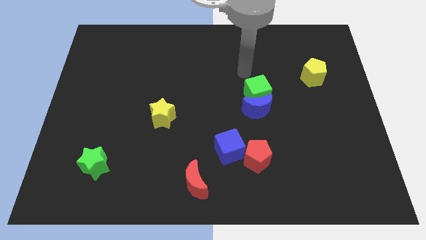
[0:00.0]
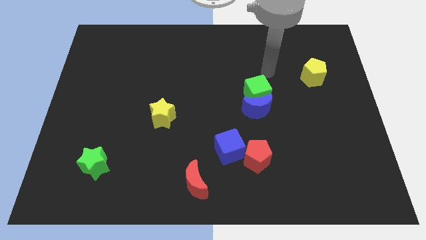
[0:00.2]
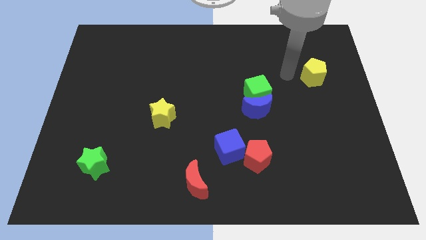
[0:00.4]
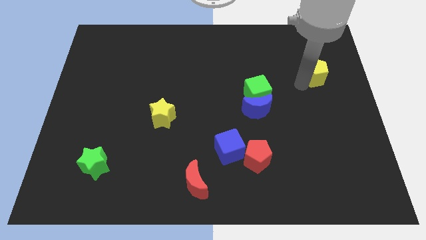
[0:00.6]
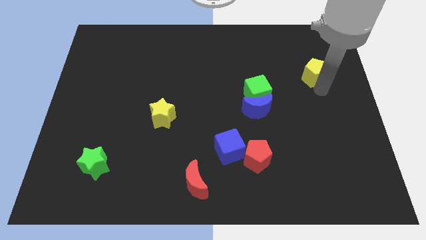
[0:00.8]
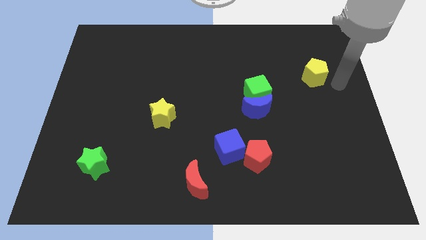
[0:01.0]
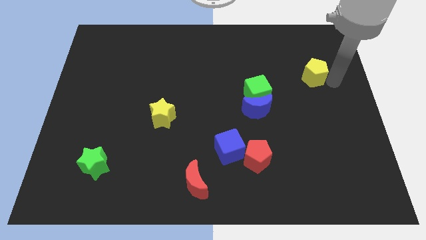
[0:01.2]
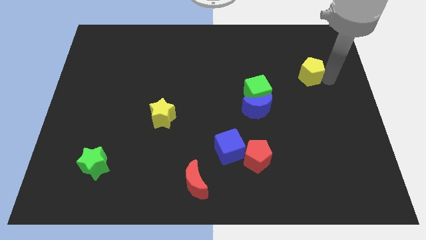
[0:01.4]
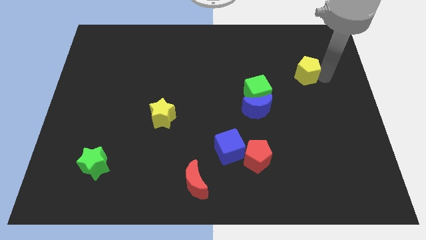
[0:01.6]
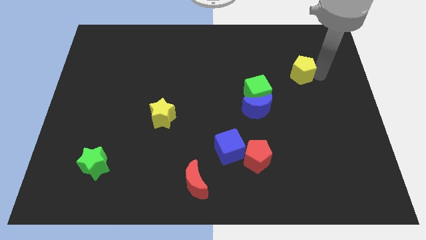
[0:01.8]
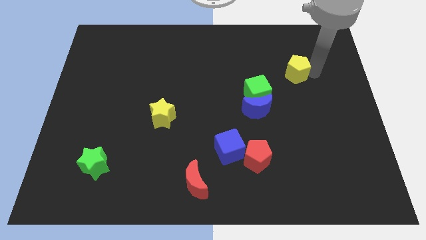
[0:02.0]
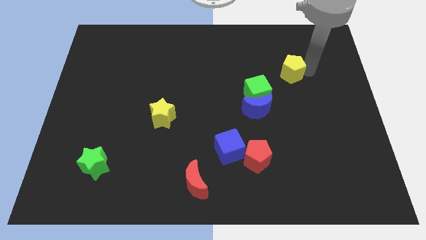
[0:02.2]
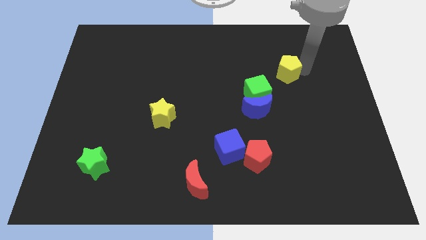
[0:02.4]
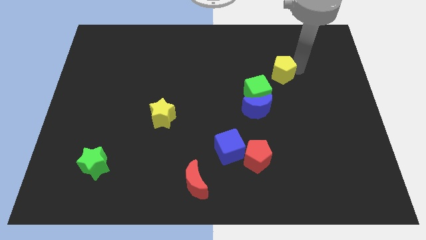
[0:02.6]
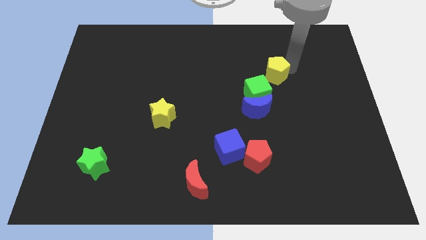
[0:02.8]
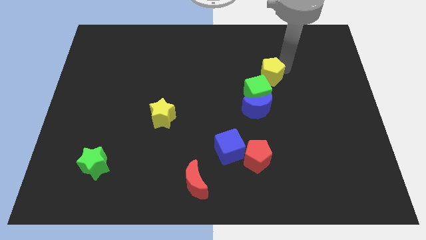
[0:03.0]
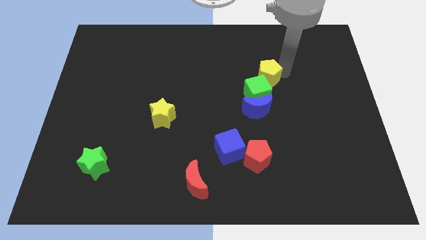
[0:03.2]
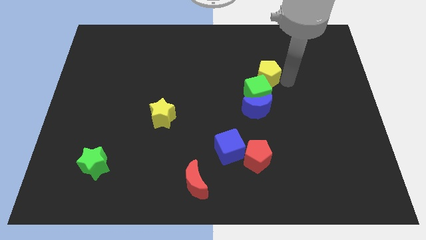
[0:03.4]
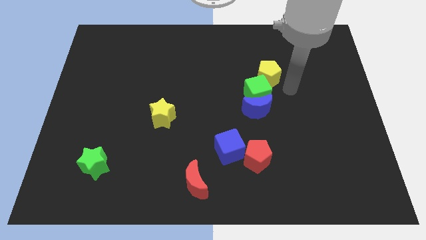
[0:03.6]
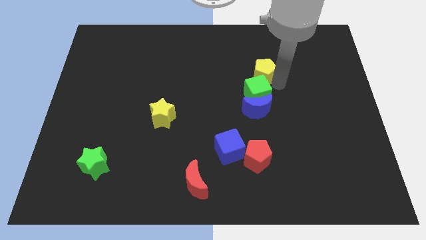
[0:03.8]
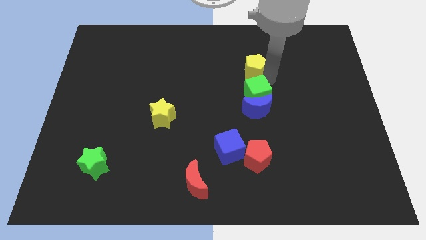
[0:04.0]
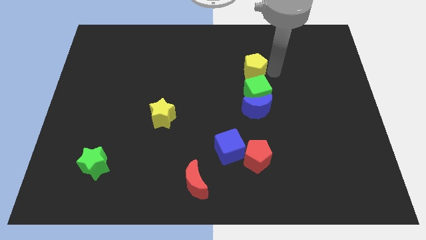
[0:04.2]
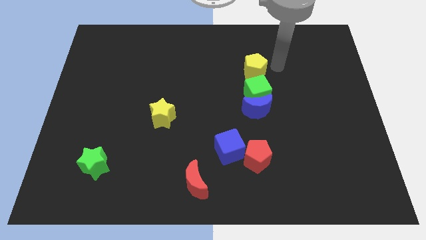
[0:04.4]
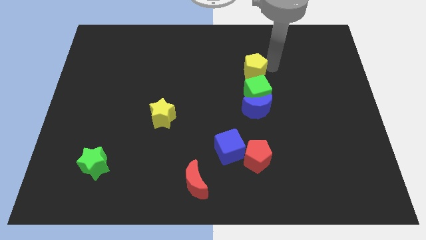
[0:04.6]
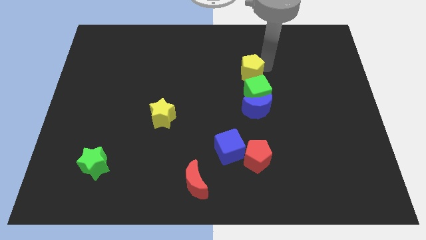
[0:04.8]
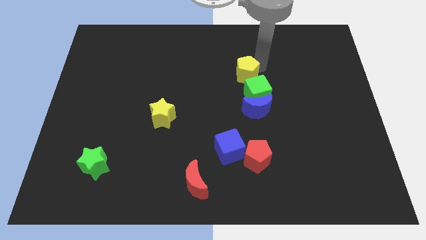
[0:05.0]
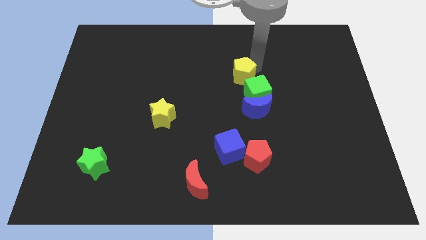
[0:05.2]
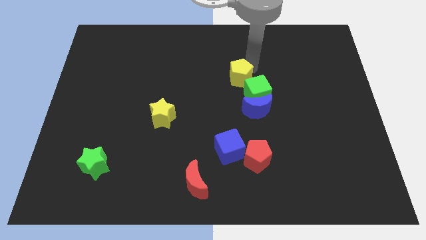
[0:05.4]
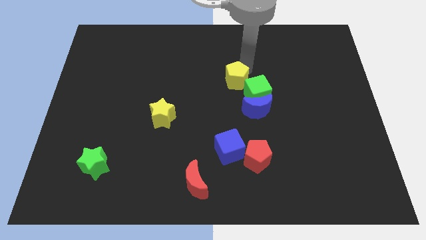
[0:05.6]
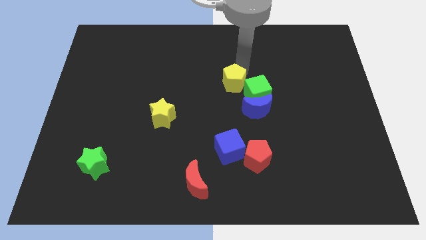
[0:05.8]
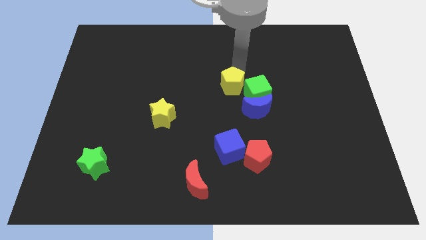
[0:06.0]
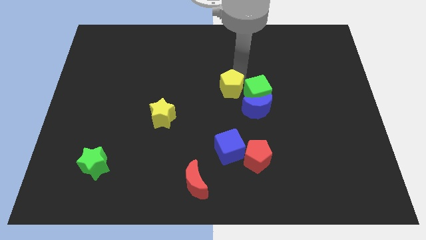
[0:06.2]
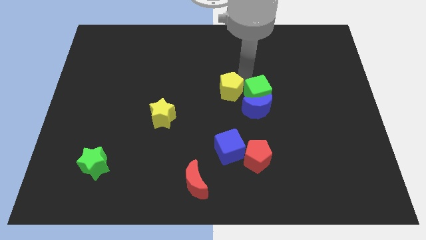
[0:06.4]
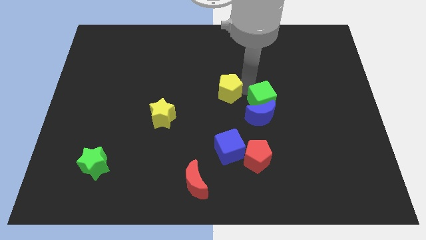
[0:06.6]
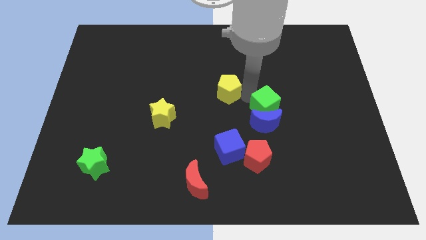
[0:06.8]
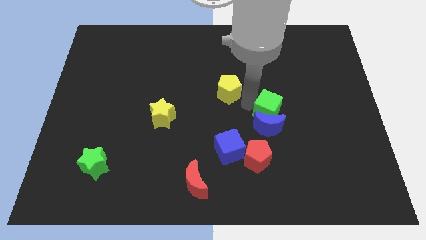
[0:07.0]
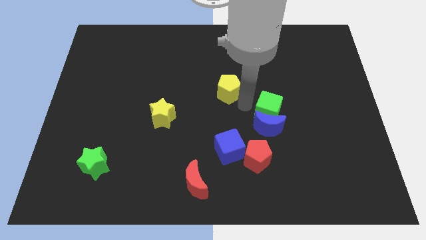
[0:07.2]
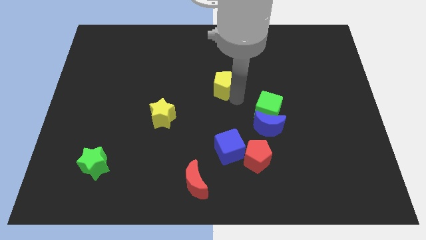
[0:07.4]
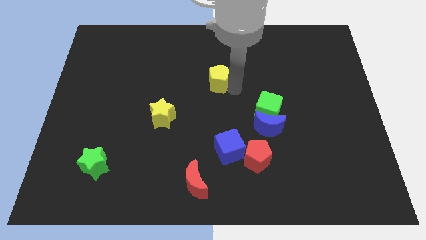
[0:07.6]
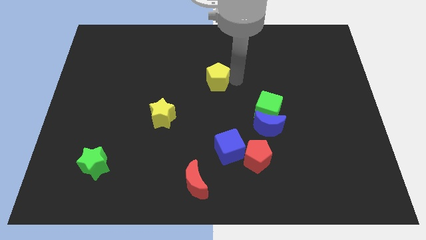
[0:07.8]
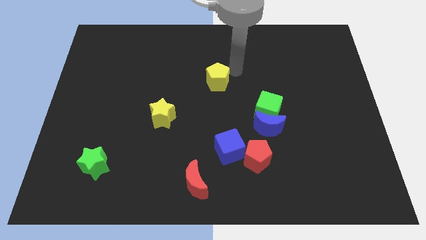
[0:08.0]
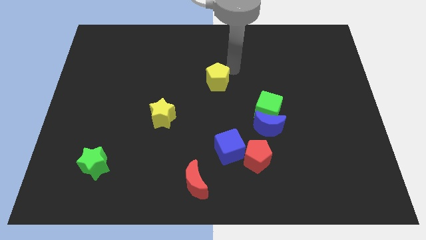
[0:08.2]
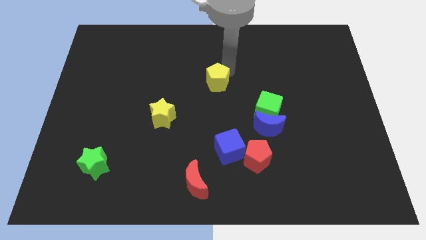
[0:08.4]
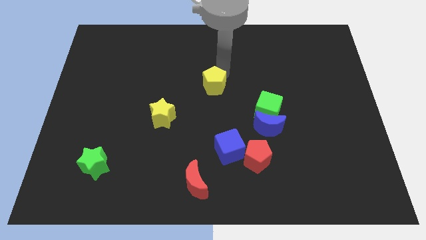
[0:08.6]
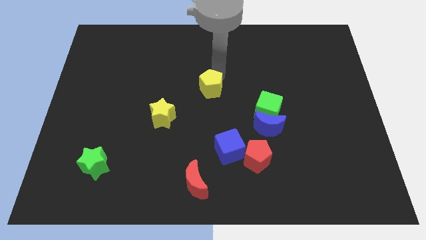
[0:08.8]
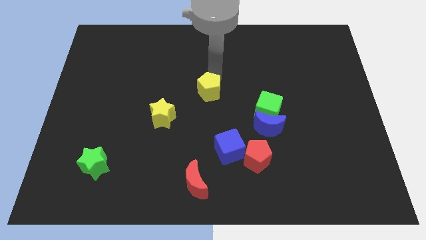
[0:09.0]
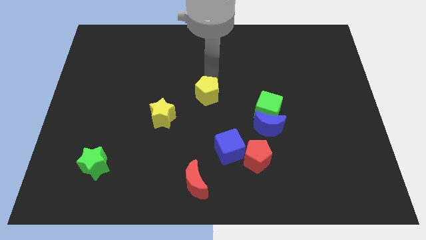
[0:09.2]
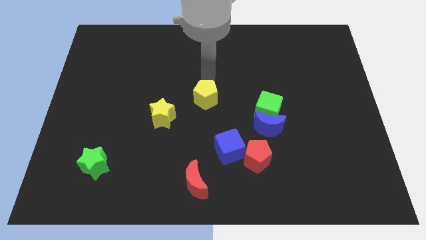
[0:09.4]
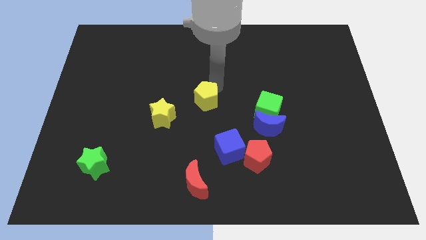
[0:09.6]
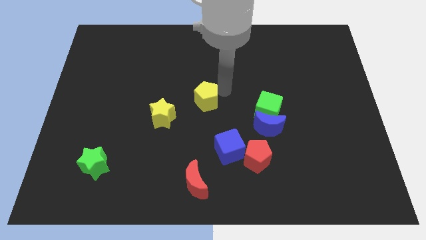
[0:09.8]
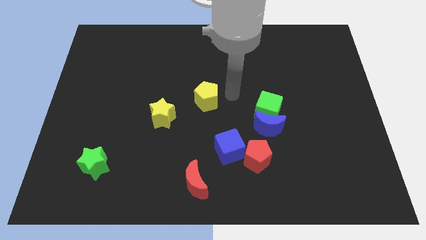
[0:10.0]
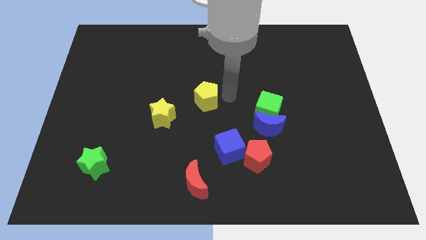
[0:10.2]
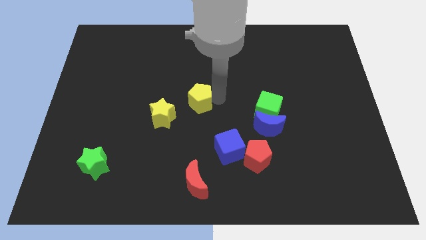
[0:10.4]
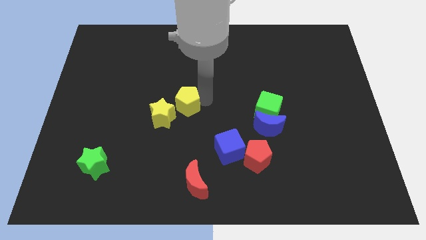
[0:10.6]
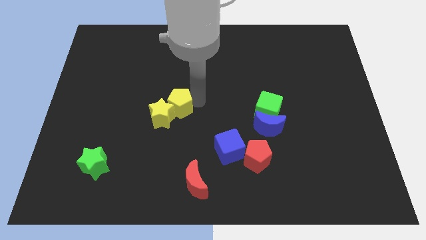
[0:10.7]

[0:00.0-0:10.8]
slide the yellow pentagon to the yellow star

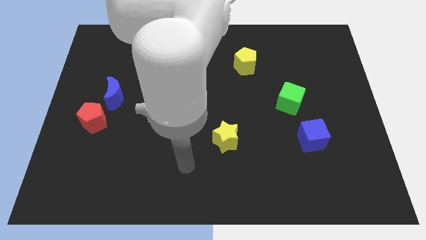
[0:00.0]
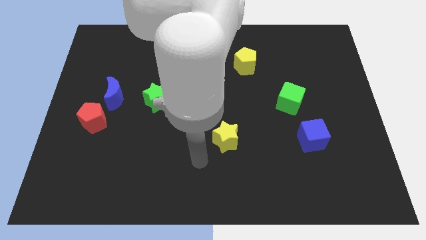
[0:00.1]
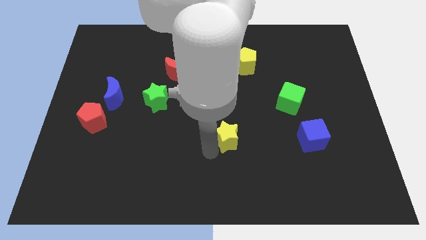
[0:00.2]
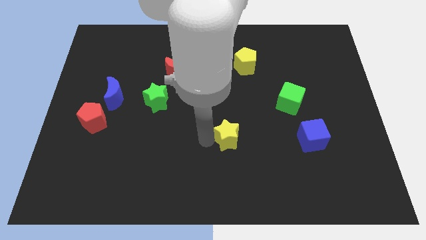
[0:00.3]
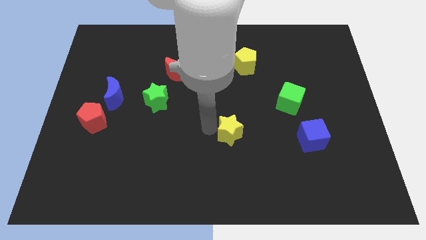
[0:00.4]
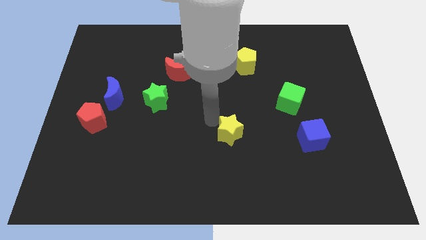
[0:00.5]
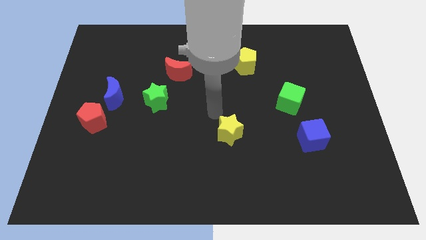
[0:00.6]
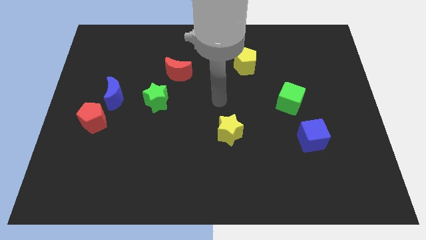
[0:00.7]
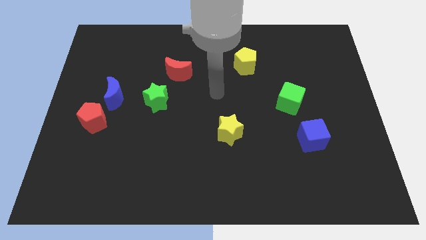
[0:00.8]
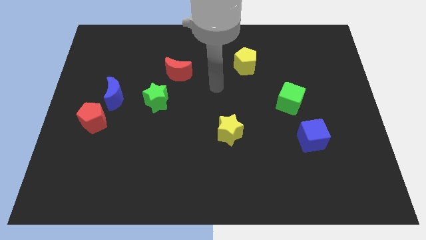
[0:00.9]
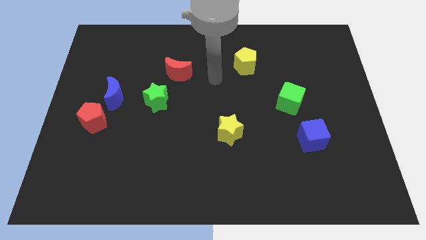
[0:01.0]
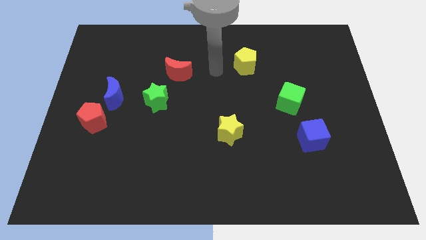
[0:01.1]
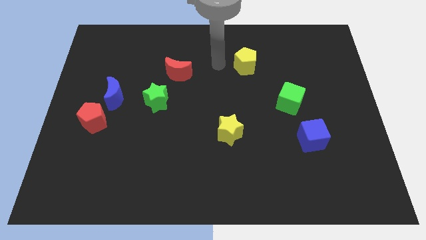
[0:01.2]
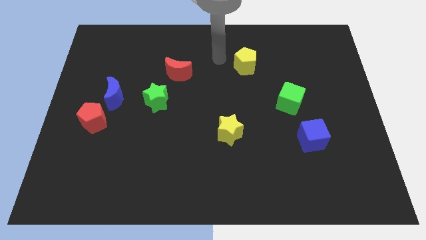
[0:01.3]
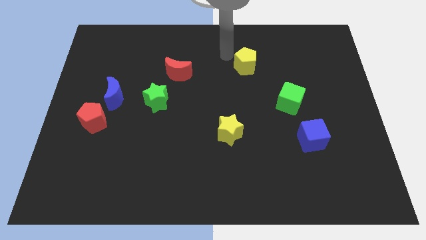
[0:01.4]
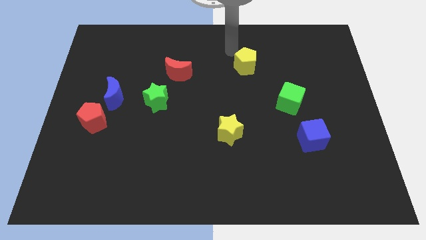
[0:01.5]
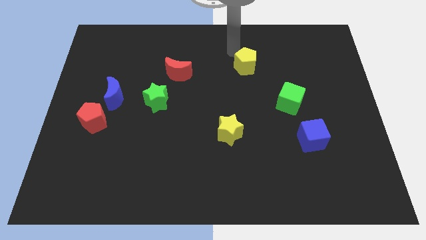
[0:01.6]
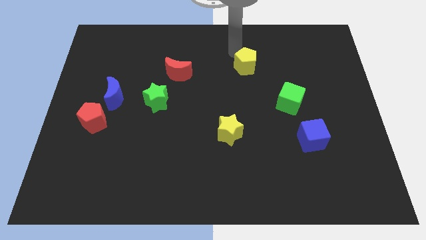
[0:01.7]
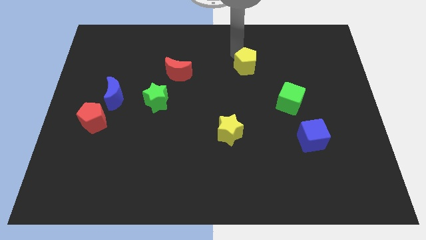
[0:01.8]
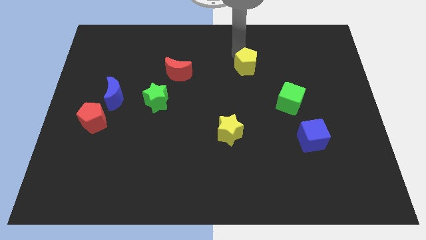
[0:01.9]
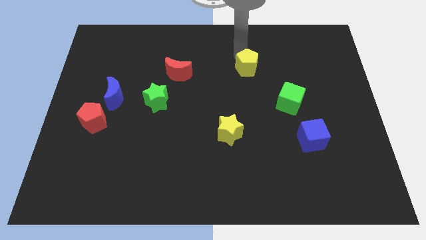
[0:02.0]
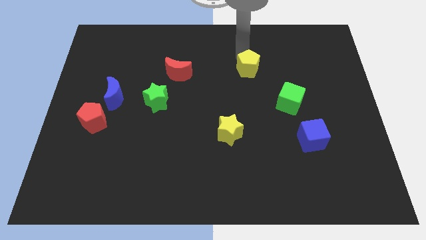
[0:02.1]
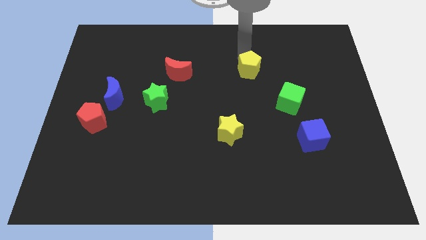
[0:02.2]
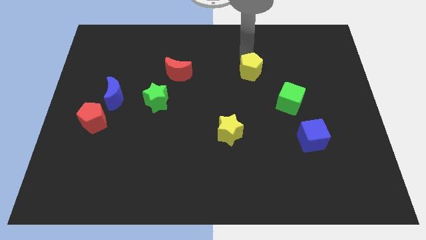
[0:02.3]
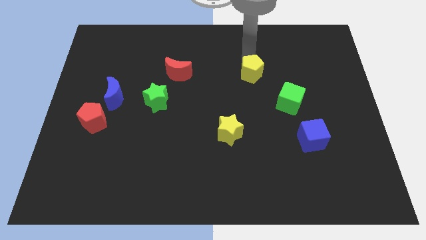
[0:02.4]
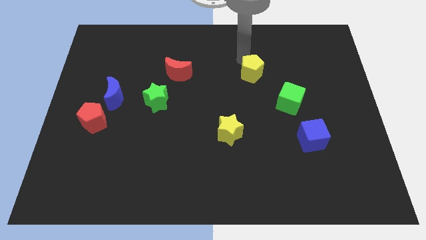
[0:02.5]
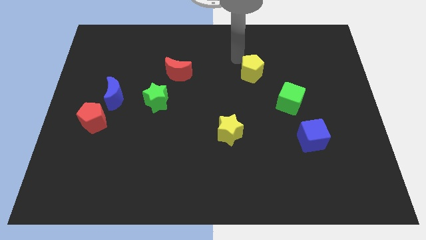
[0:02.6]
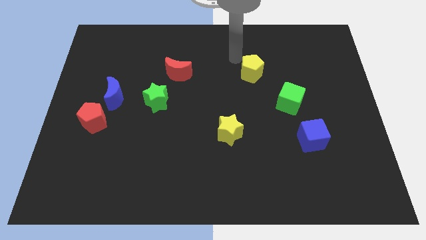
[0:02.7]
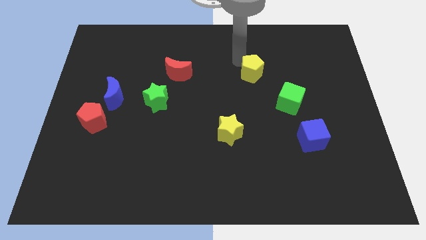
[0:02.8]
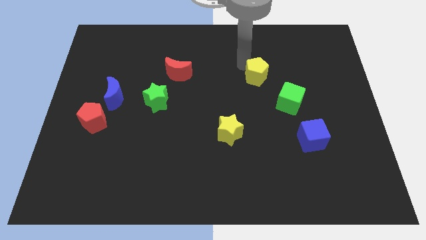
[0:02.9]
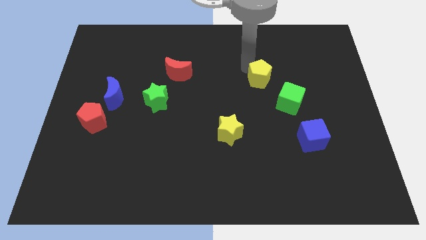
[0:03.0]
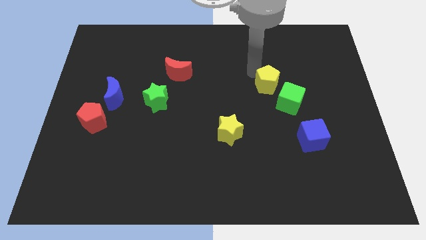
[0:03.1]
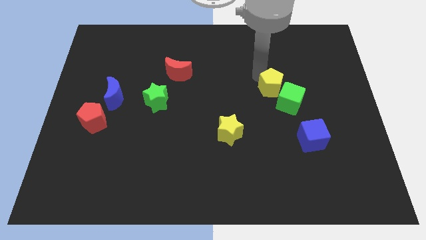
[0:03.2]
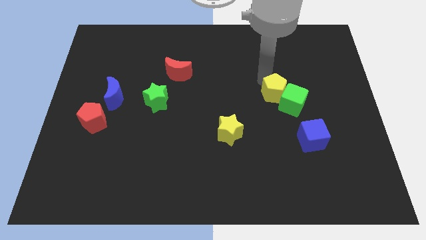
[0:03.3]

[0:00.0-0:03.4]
slide the yellow pentagon to the green cube
